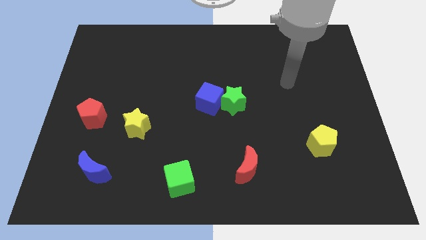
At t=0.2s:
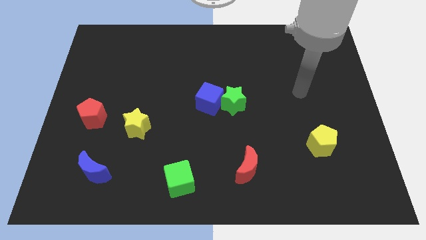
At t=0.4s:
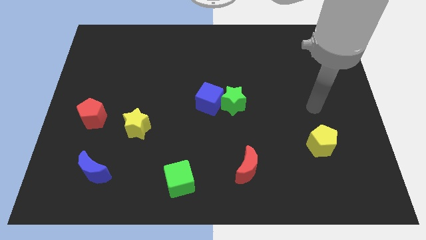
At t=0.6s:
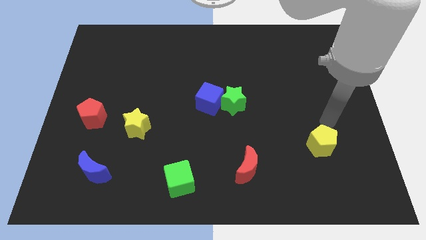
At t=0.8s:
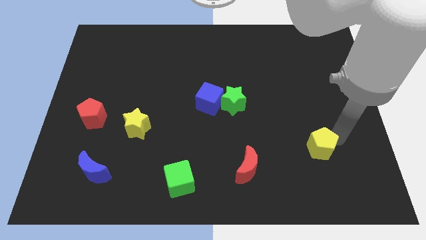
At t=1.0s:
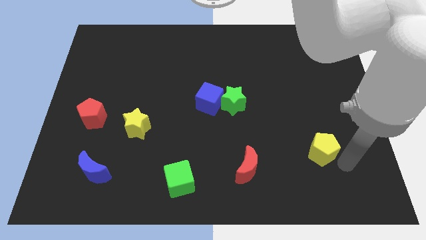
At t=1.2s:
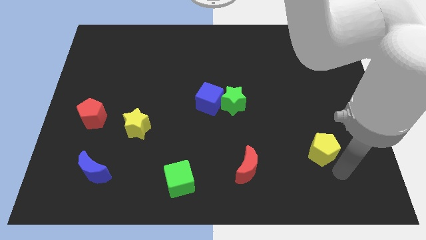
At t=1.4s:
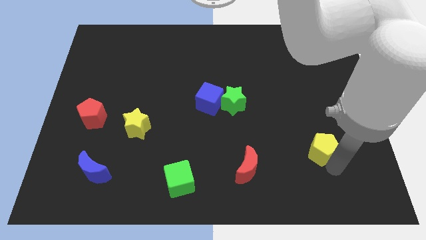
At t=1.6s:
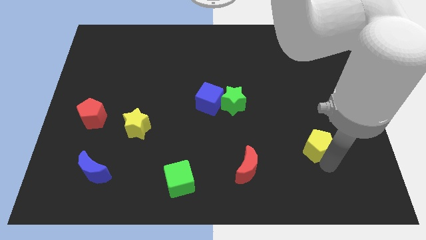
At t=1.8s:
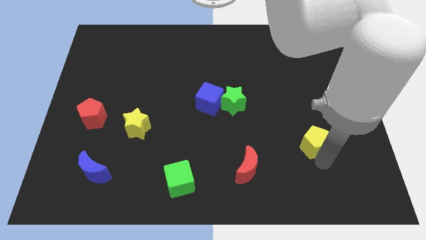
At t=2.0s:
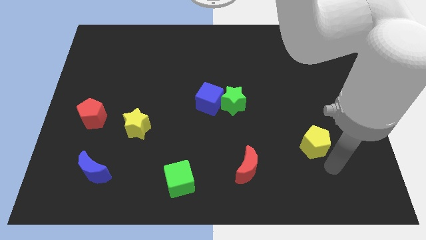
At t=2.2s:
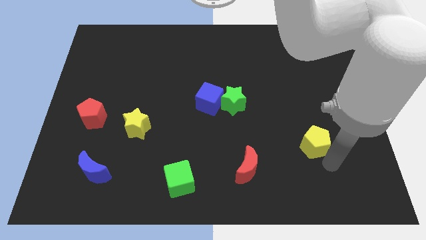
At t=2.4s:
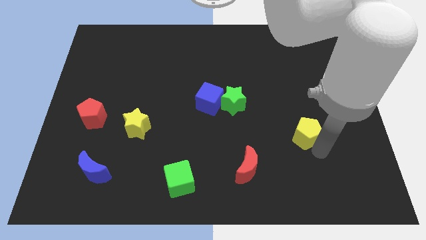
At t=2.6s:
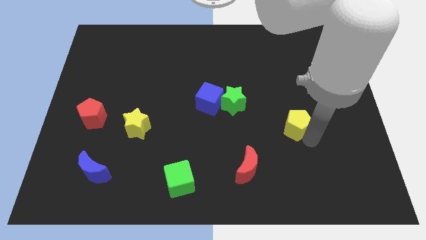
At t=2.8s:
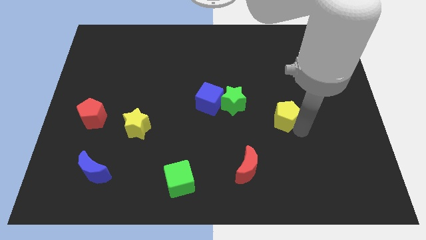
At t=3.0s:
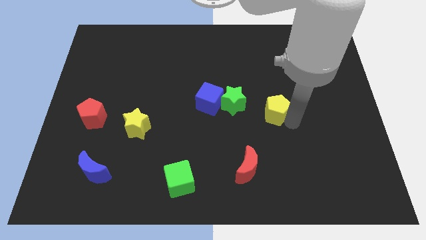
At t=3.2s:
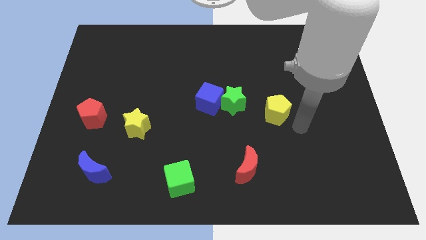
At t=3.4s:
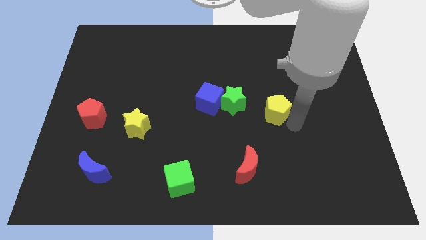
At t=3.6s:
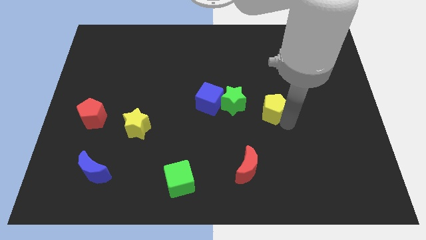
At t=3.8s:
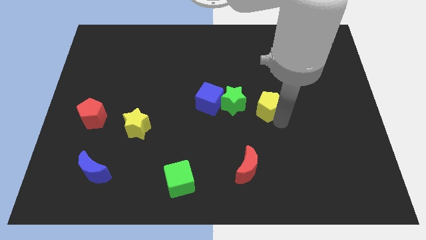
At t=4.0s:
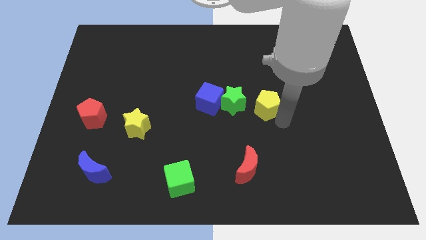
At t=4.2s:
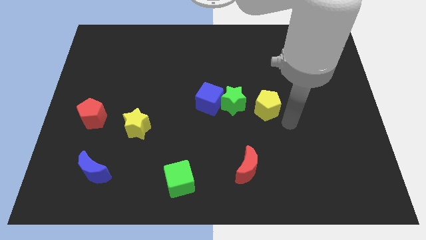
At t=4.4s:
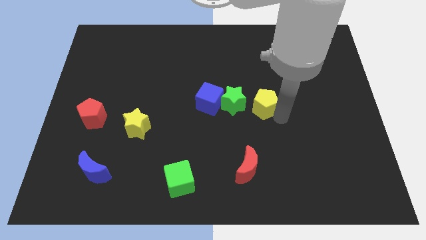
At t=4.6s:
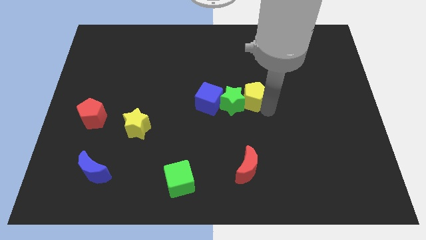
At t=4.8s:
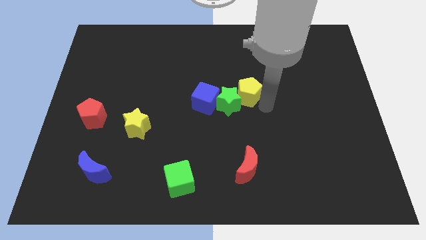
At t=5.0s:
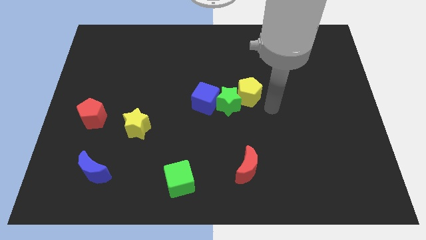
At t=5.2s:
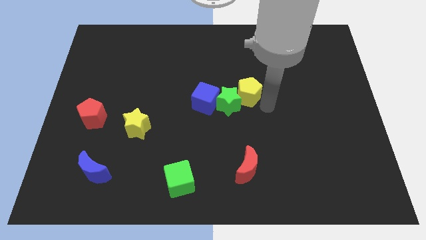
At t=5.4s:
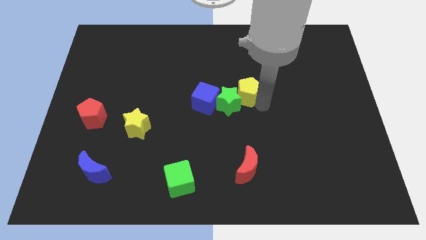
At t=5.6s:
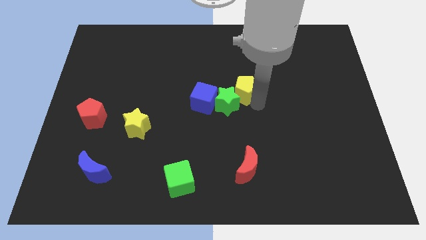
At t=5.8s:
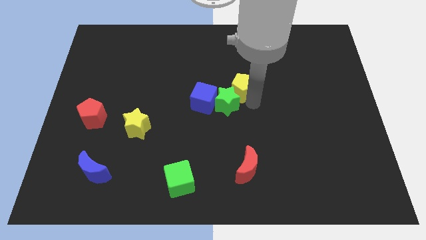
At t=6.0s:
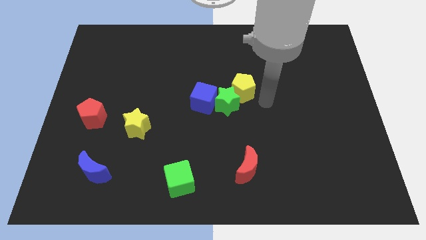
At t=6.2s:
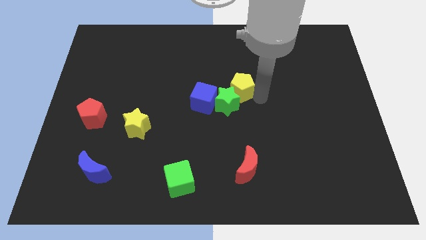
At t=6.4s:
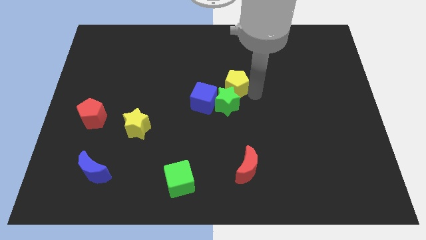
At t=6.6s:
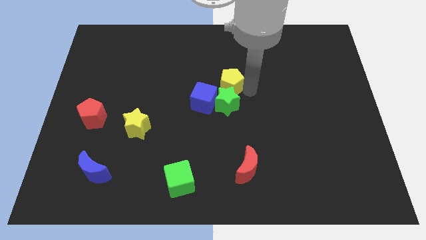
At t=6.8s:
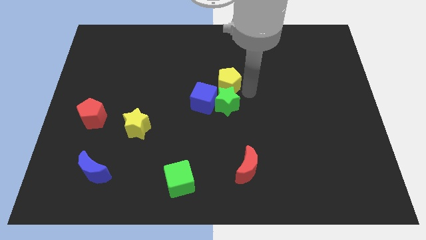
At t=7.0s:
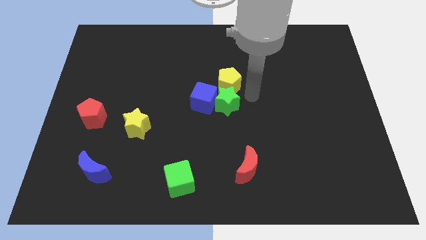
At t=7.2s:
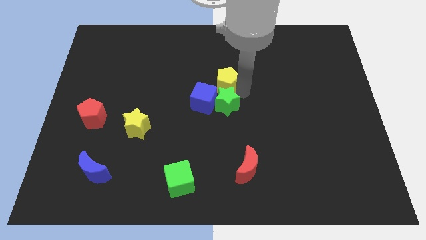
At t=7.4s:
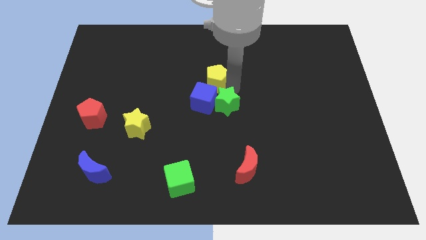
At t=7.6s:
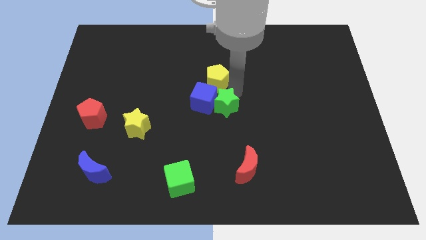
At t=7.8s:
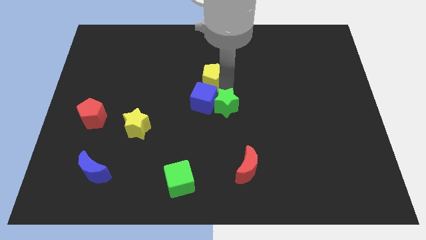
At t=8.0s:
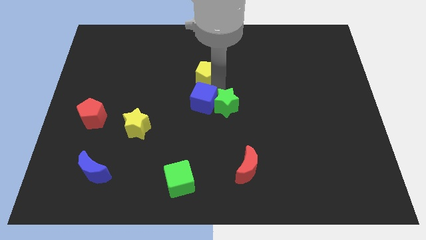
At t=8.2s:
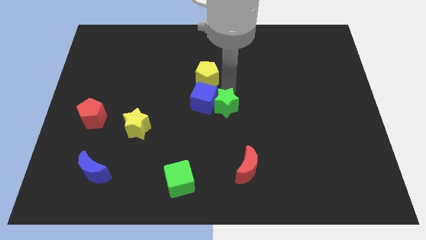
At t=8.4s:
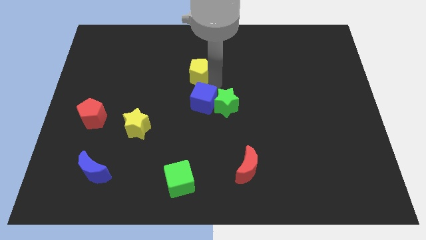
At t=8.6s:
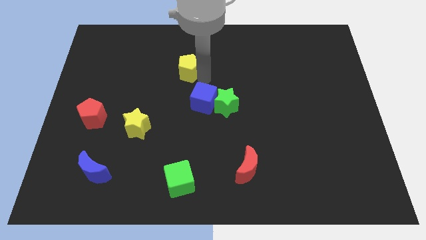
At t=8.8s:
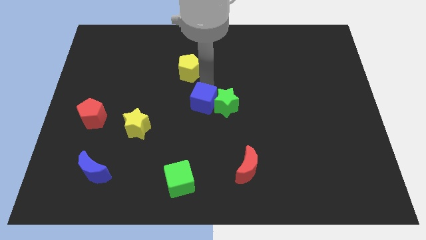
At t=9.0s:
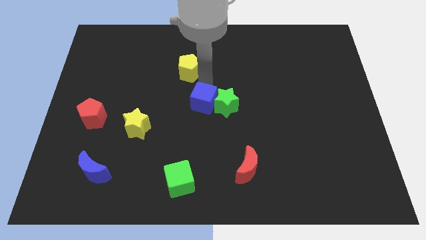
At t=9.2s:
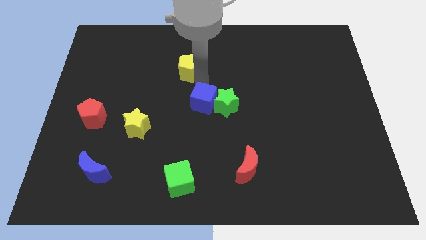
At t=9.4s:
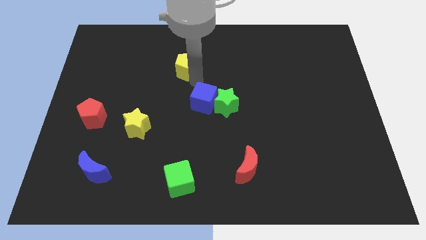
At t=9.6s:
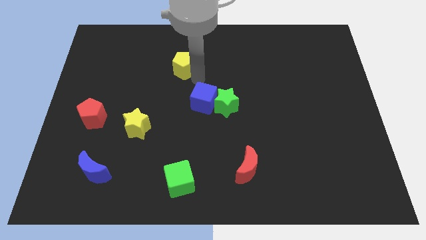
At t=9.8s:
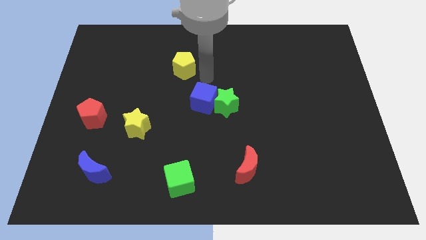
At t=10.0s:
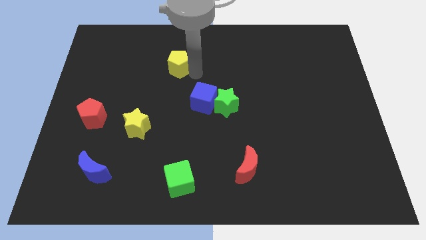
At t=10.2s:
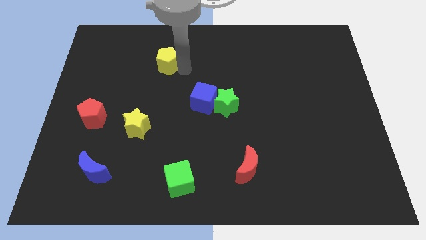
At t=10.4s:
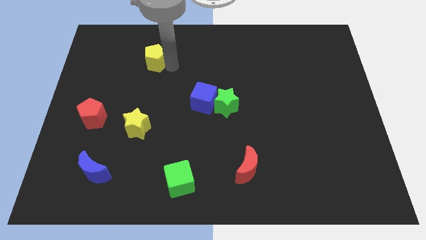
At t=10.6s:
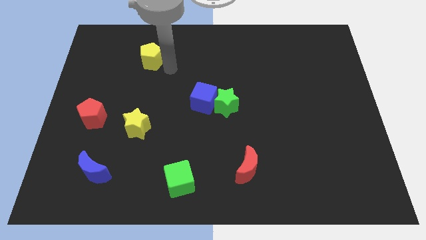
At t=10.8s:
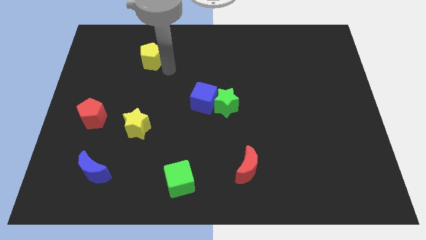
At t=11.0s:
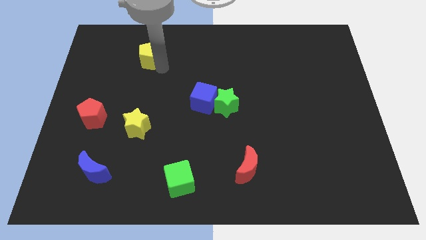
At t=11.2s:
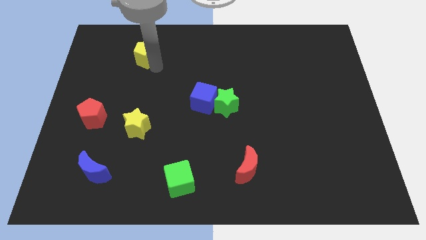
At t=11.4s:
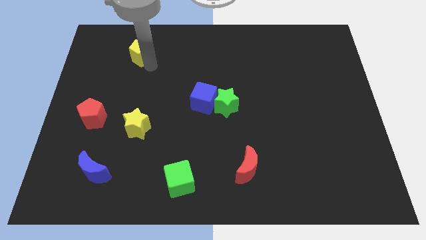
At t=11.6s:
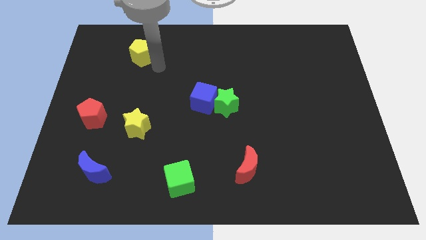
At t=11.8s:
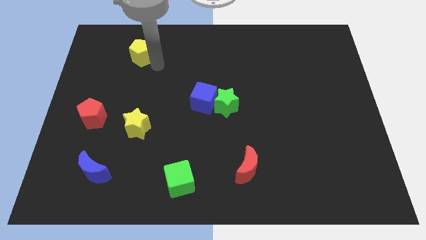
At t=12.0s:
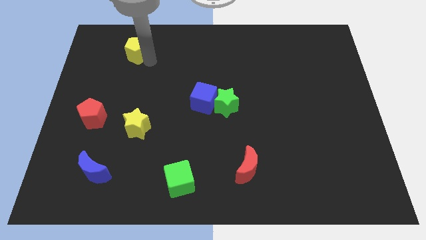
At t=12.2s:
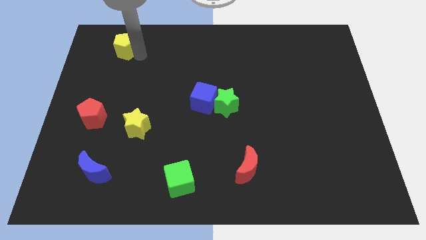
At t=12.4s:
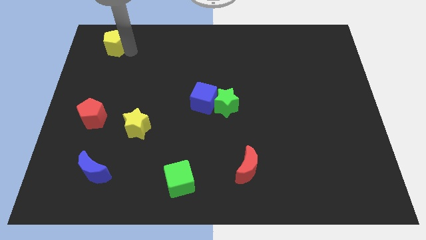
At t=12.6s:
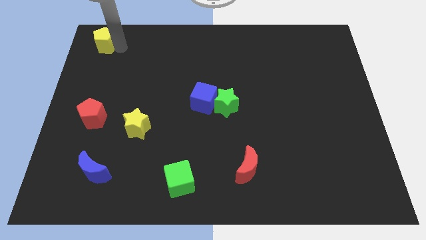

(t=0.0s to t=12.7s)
push the yellow pentagon to the top left corner
